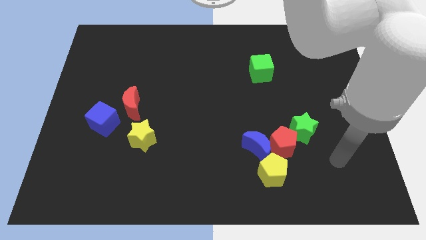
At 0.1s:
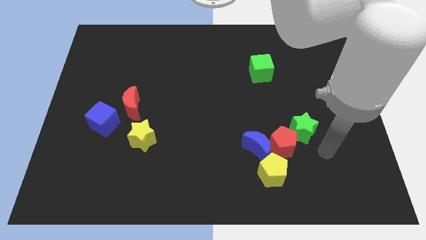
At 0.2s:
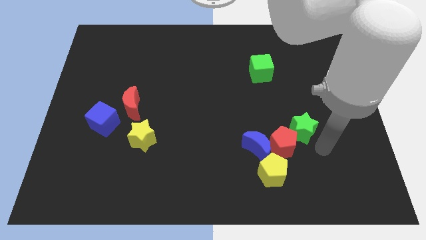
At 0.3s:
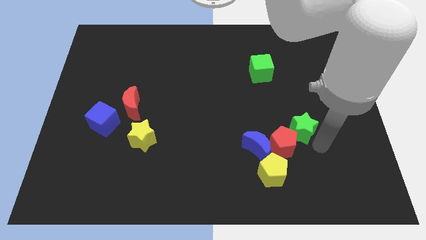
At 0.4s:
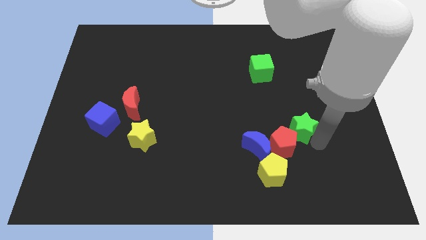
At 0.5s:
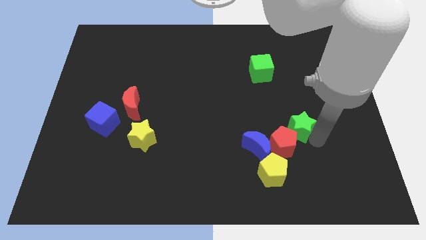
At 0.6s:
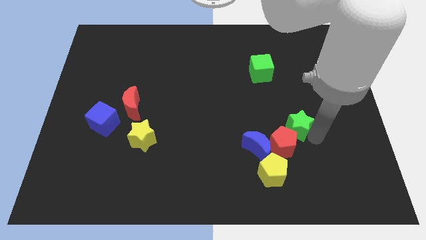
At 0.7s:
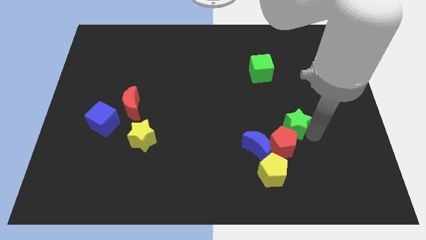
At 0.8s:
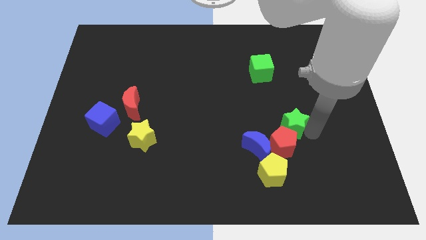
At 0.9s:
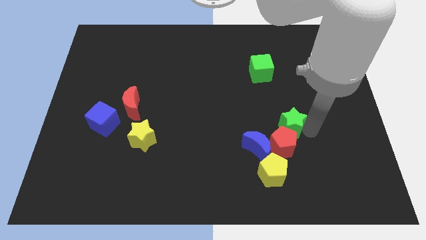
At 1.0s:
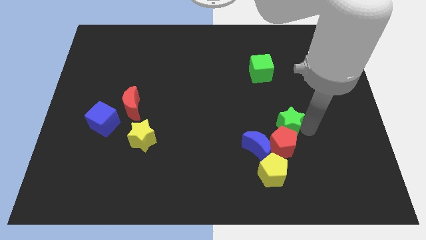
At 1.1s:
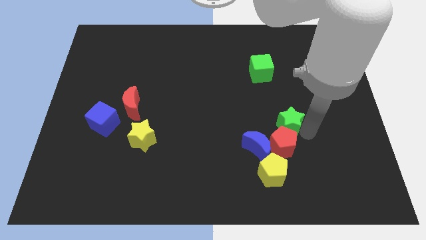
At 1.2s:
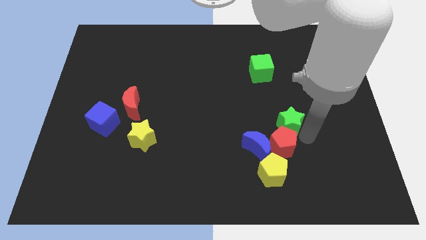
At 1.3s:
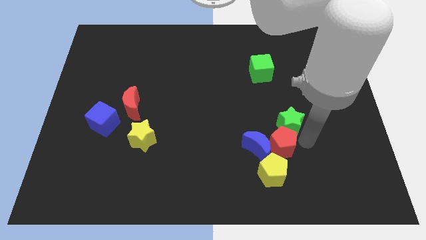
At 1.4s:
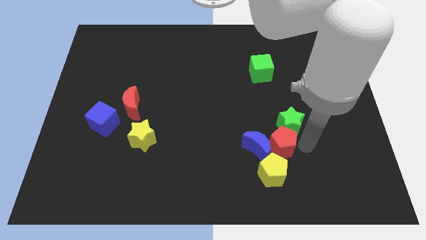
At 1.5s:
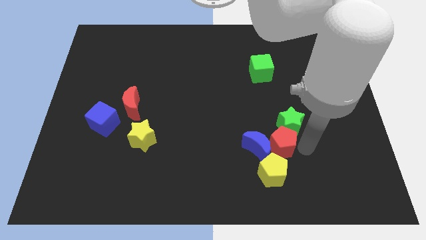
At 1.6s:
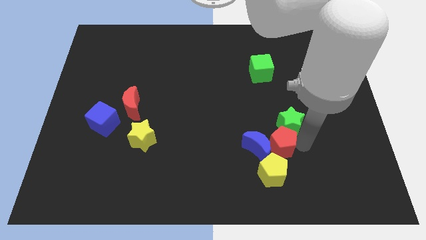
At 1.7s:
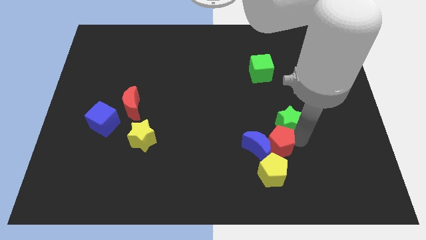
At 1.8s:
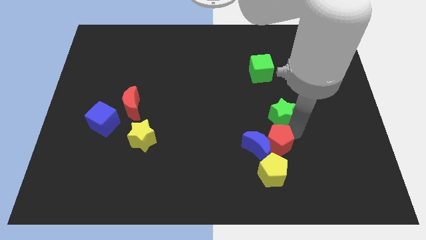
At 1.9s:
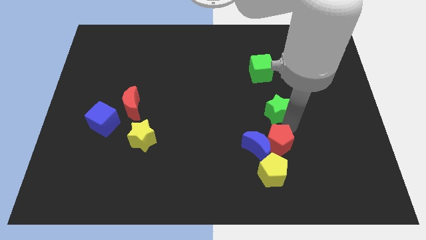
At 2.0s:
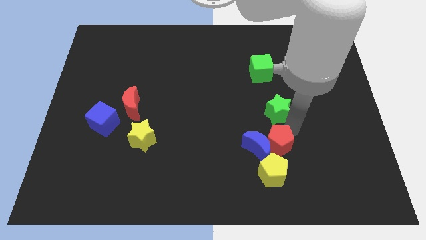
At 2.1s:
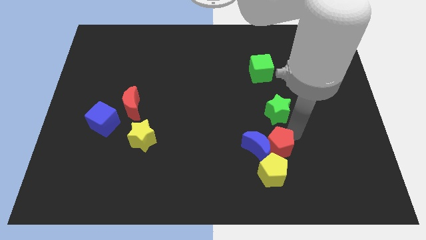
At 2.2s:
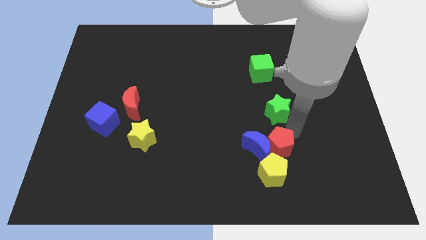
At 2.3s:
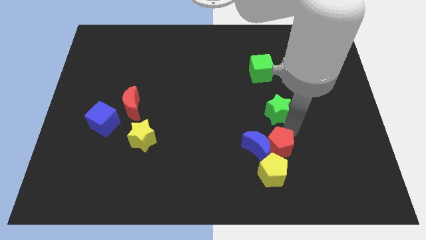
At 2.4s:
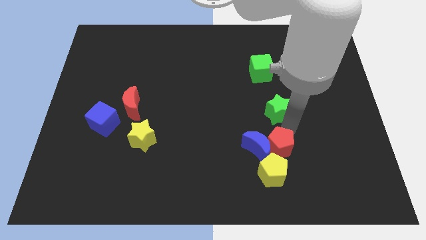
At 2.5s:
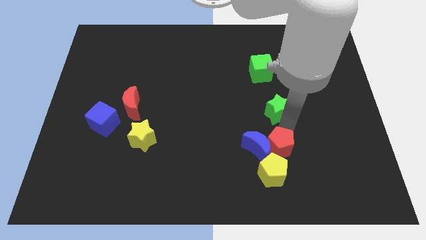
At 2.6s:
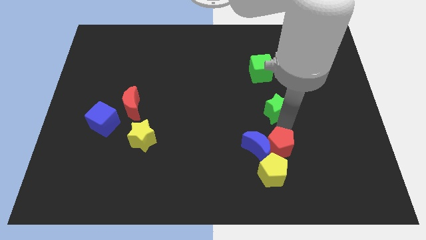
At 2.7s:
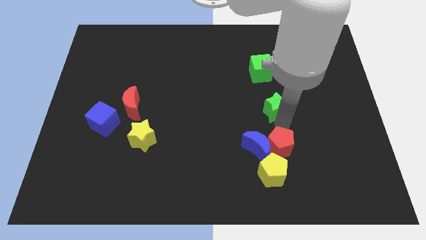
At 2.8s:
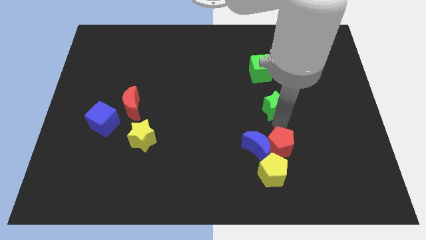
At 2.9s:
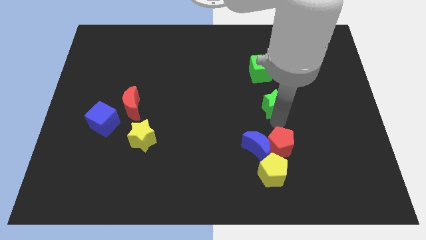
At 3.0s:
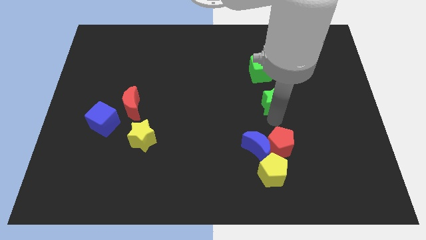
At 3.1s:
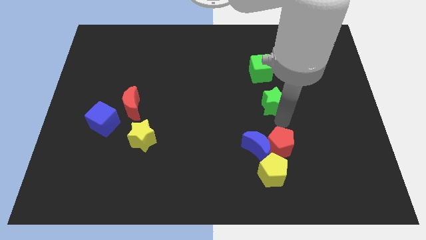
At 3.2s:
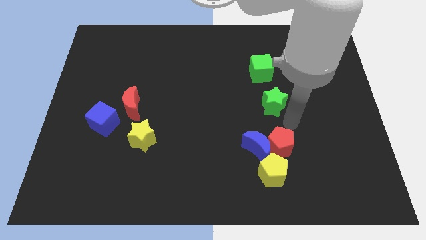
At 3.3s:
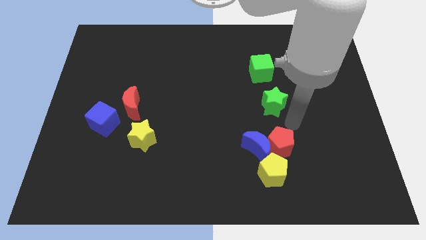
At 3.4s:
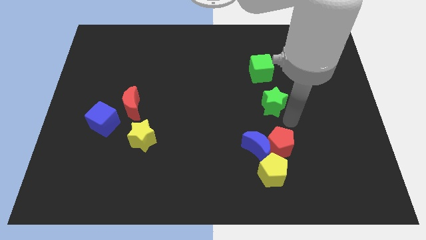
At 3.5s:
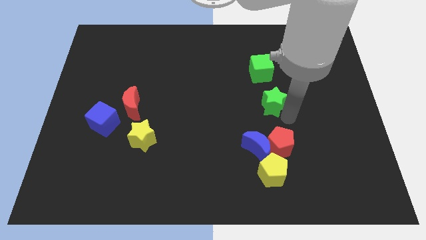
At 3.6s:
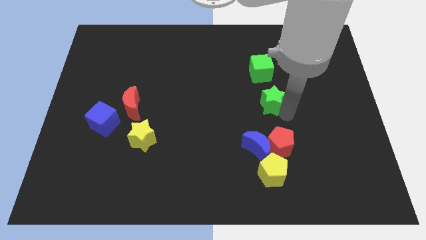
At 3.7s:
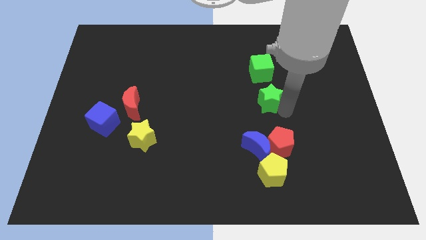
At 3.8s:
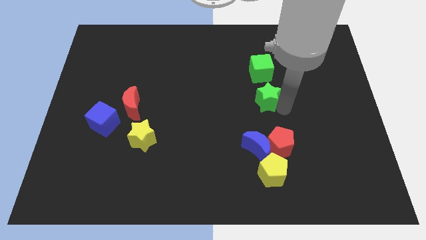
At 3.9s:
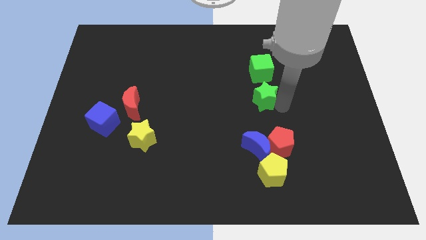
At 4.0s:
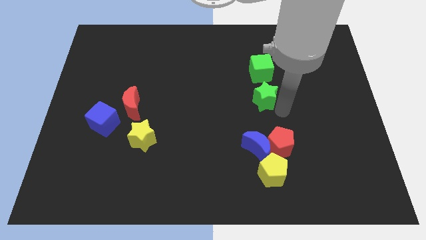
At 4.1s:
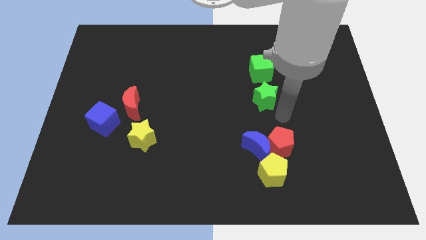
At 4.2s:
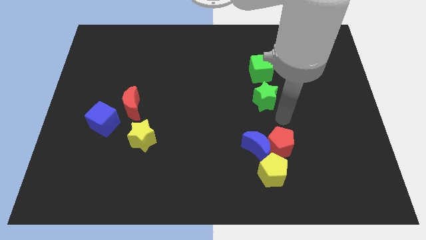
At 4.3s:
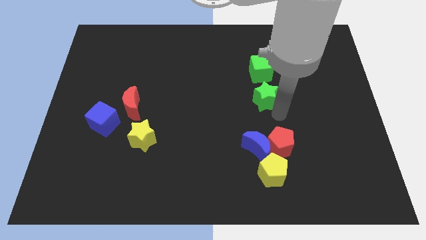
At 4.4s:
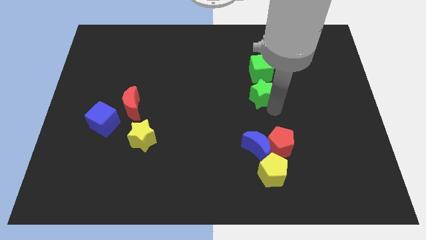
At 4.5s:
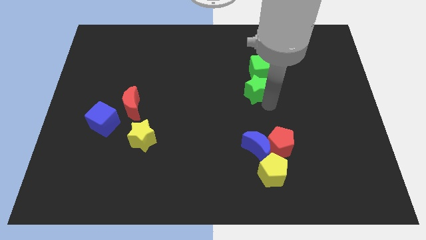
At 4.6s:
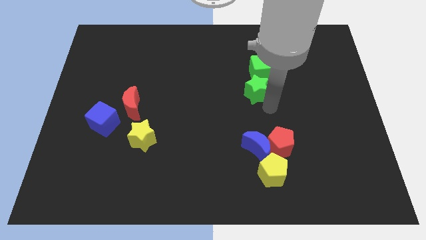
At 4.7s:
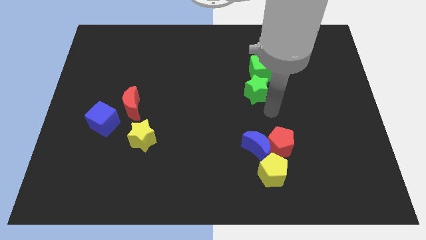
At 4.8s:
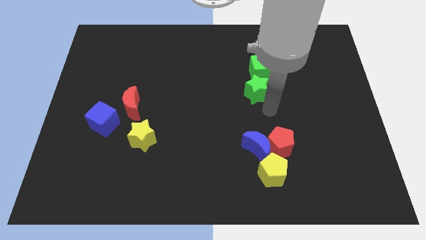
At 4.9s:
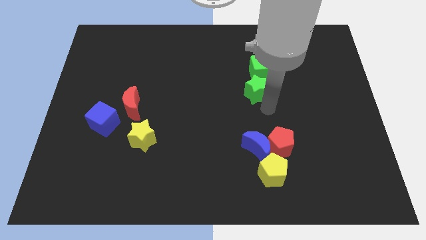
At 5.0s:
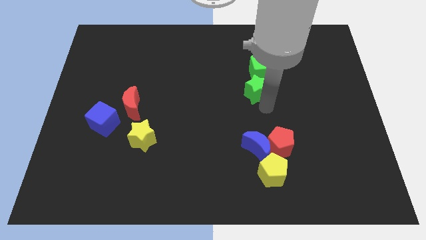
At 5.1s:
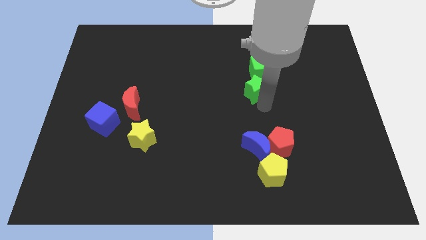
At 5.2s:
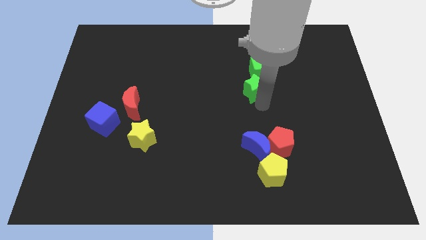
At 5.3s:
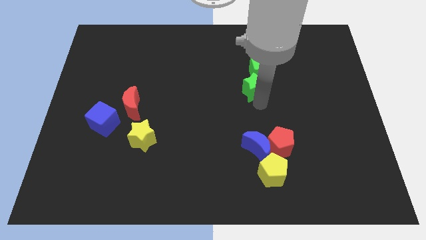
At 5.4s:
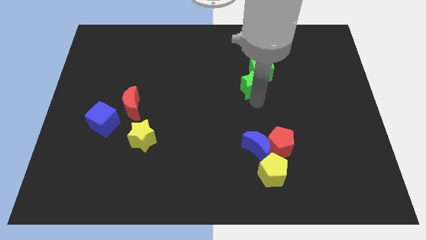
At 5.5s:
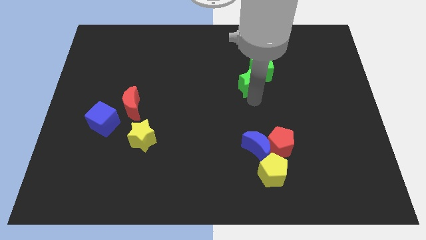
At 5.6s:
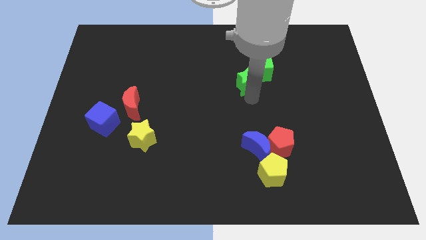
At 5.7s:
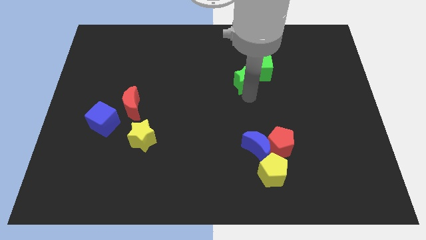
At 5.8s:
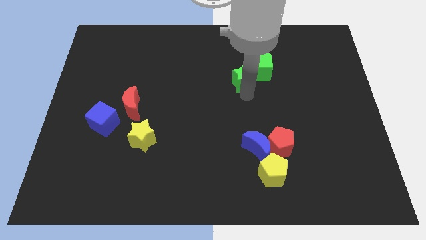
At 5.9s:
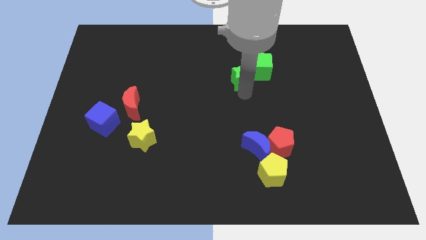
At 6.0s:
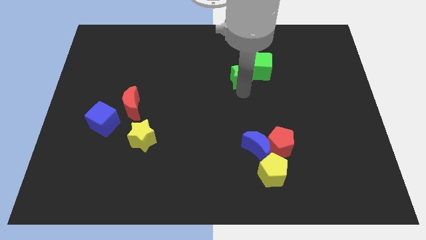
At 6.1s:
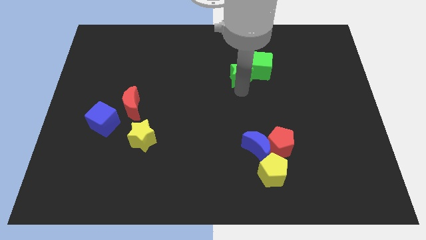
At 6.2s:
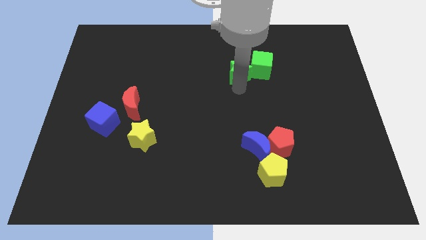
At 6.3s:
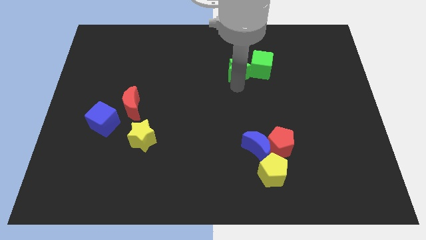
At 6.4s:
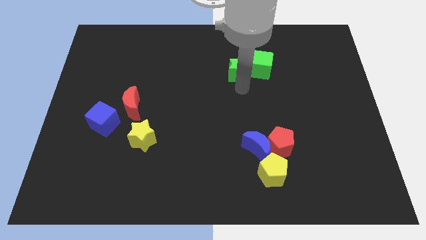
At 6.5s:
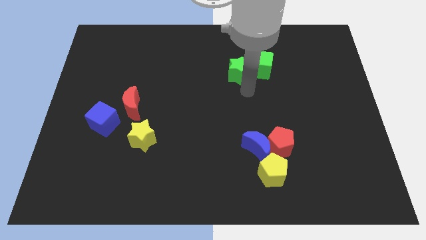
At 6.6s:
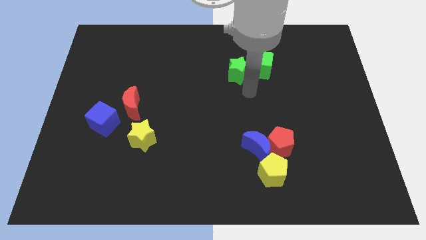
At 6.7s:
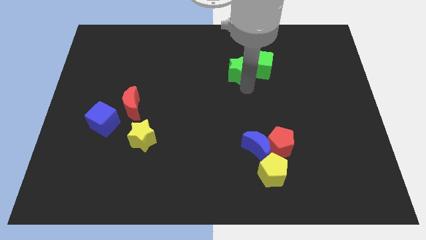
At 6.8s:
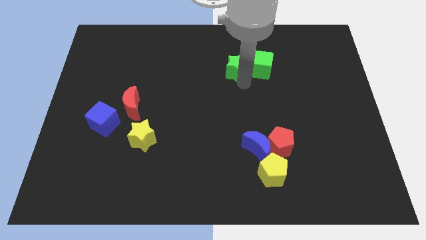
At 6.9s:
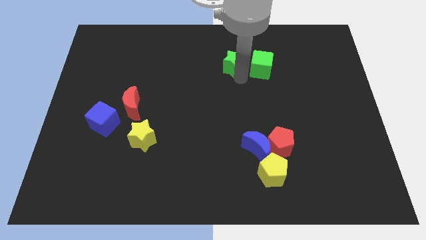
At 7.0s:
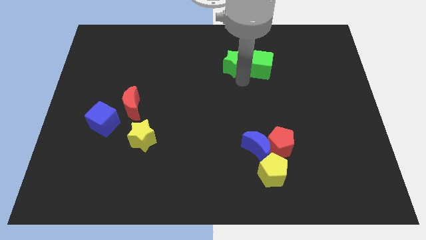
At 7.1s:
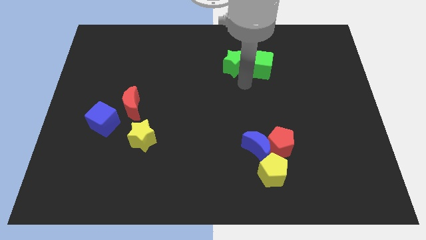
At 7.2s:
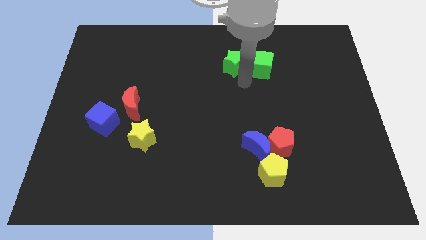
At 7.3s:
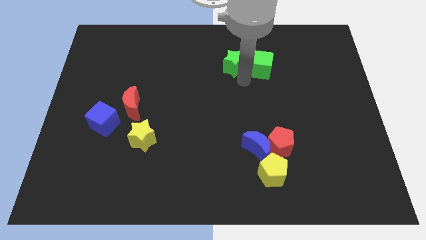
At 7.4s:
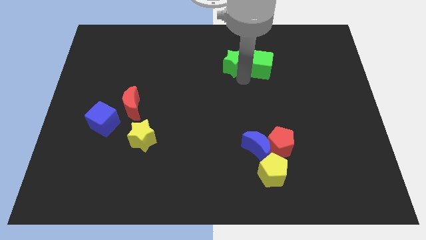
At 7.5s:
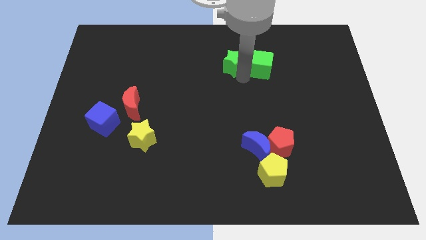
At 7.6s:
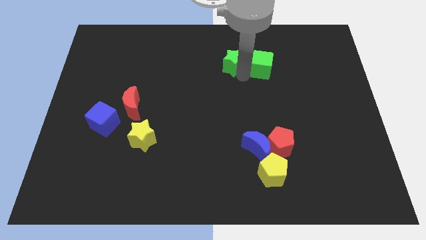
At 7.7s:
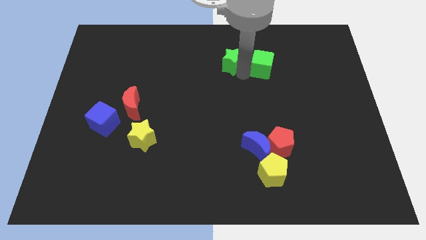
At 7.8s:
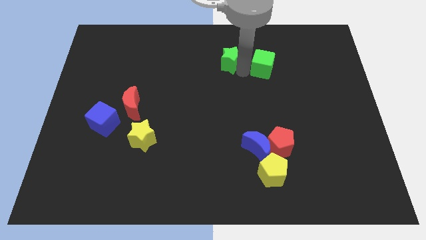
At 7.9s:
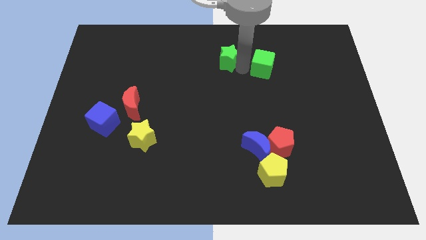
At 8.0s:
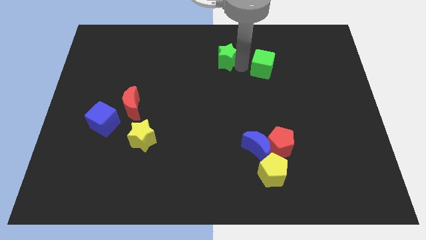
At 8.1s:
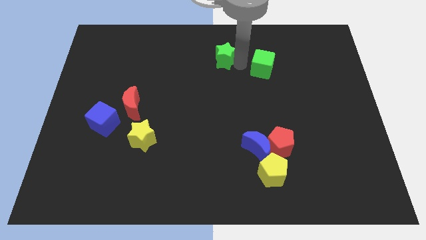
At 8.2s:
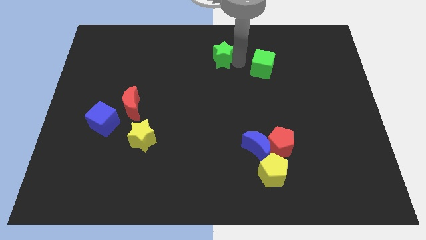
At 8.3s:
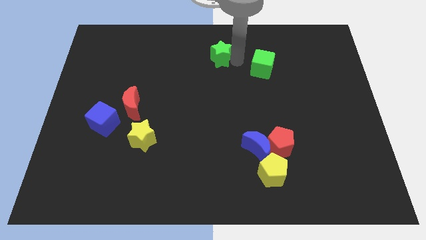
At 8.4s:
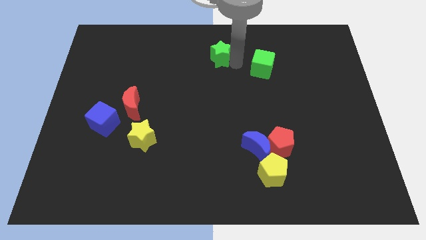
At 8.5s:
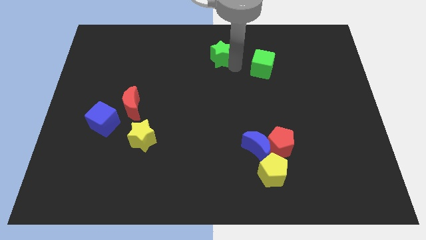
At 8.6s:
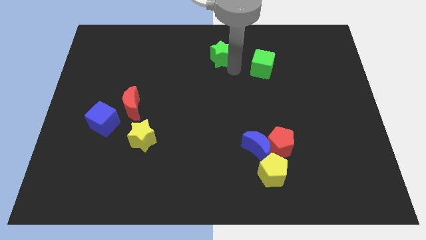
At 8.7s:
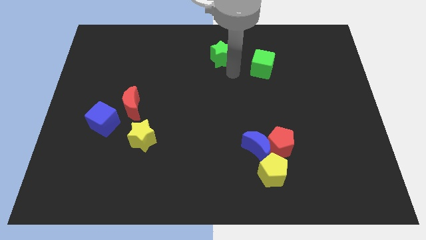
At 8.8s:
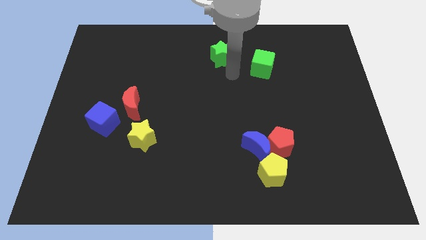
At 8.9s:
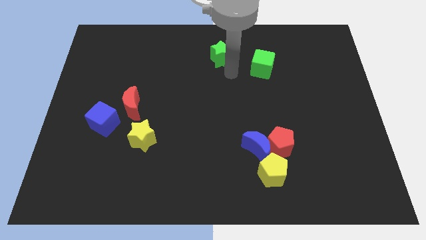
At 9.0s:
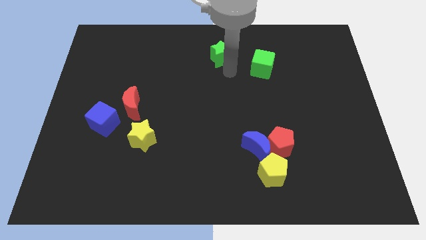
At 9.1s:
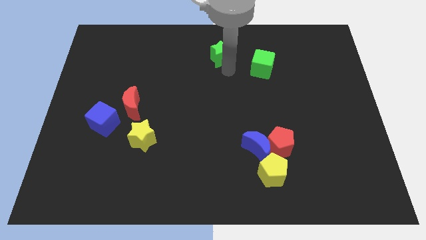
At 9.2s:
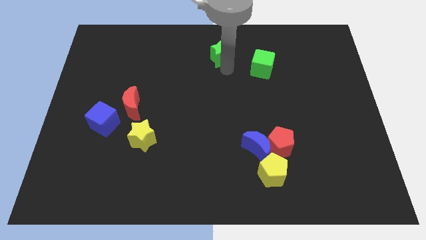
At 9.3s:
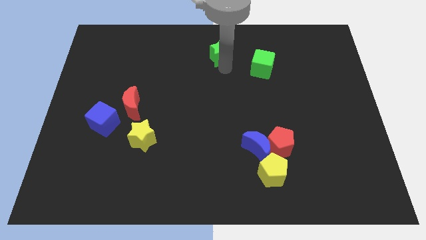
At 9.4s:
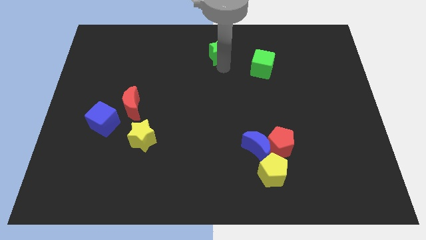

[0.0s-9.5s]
put the green star to the top
